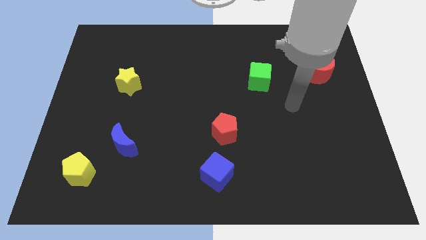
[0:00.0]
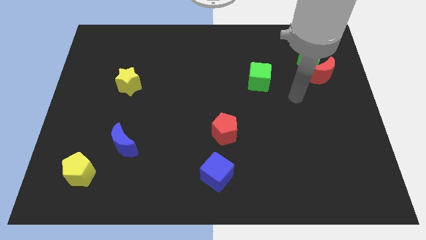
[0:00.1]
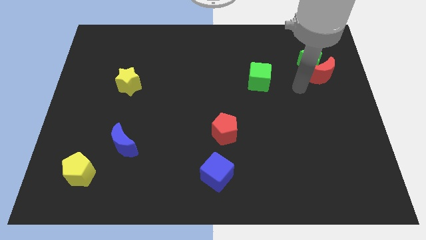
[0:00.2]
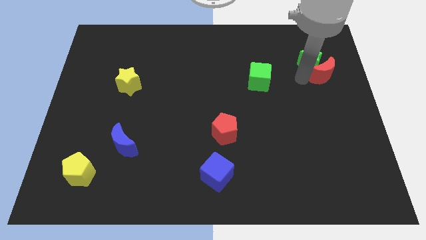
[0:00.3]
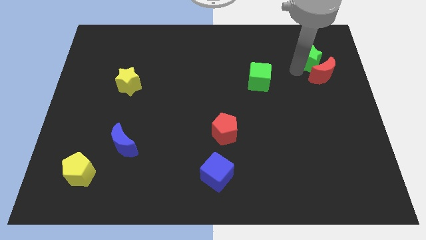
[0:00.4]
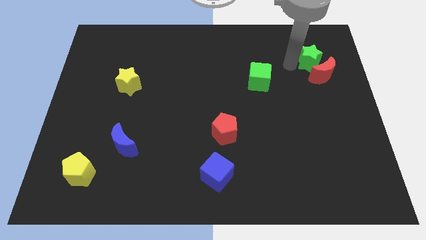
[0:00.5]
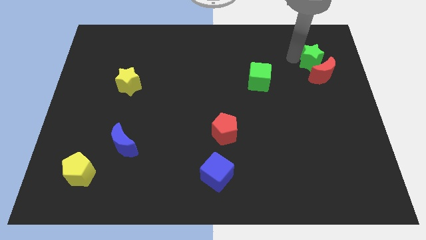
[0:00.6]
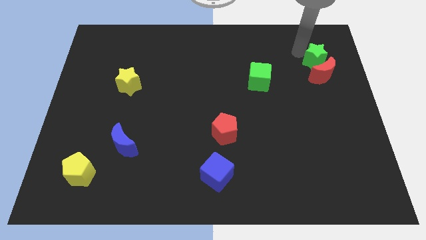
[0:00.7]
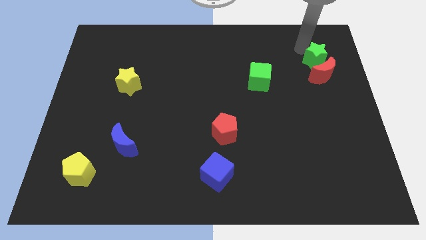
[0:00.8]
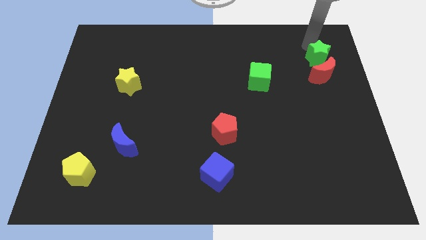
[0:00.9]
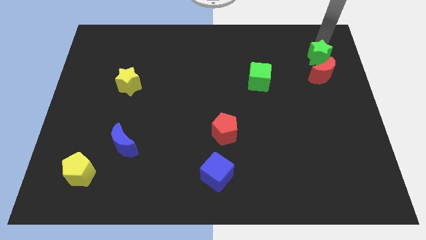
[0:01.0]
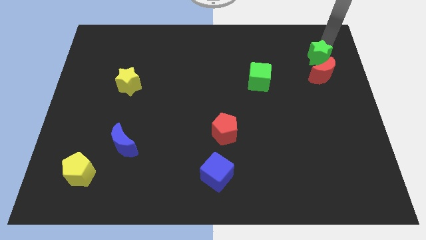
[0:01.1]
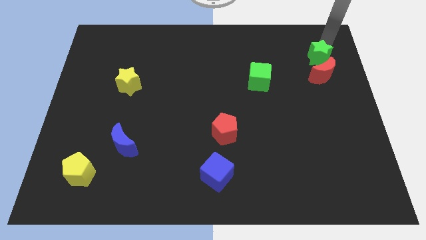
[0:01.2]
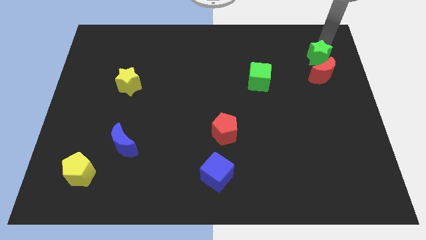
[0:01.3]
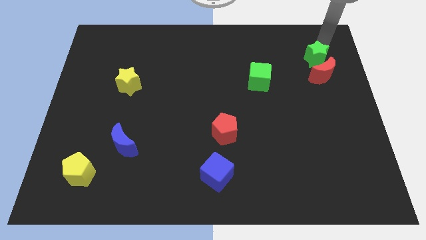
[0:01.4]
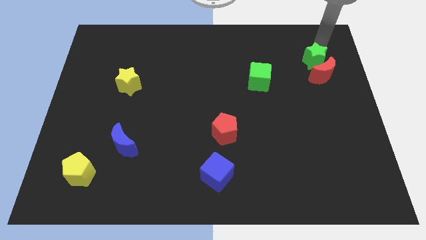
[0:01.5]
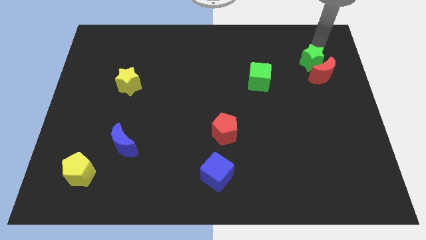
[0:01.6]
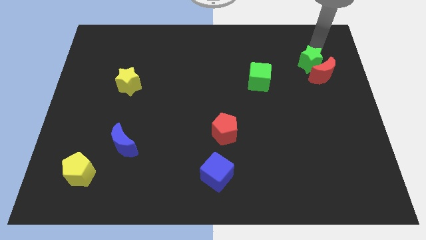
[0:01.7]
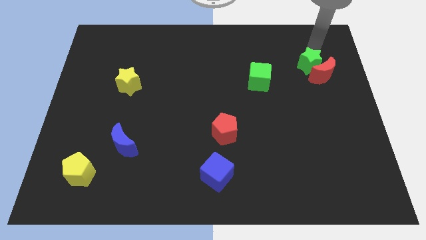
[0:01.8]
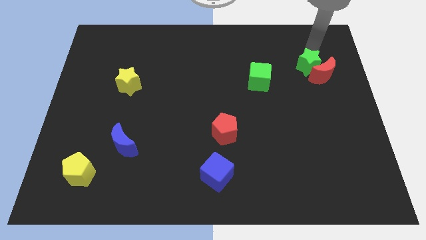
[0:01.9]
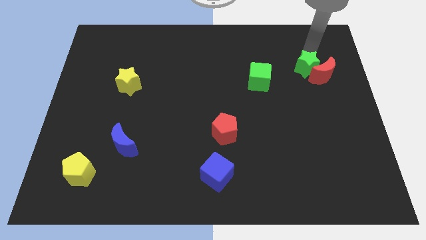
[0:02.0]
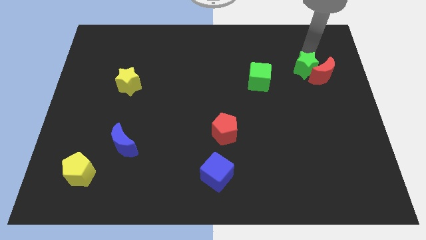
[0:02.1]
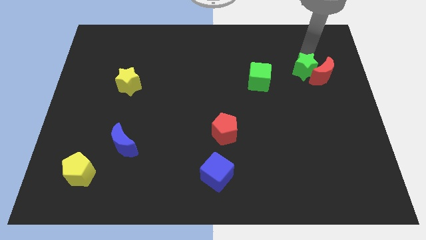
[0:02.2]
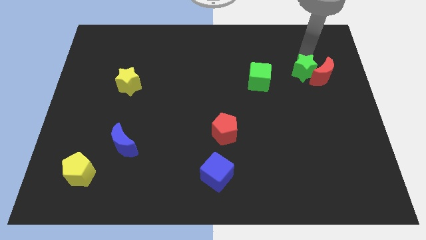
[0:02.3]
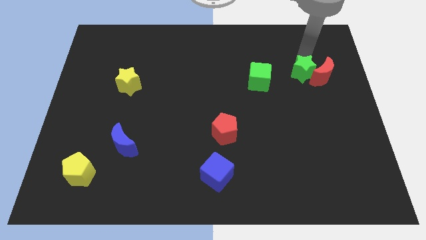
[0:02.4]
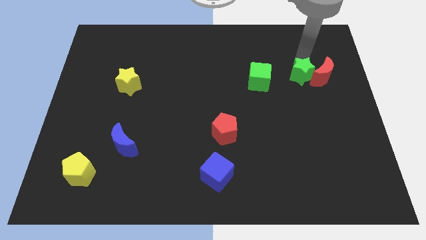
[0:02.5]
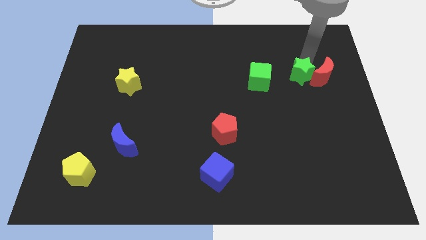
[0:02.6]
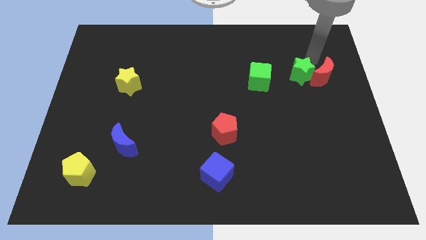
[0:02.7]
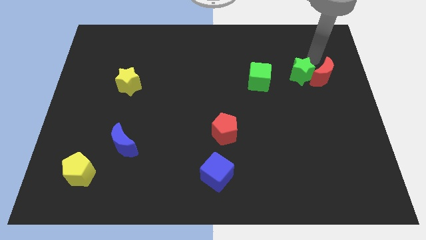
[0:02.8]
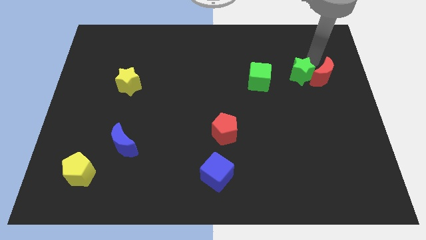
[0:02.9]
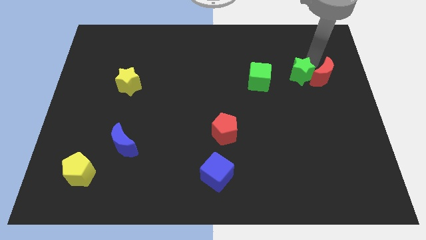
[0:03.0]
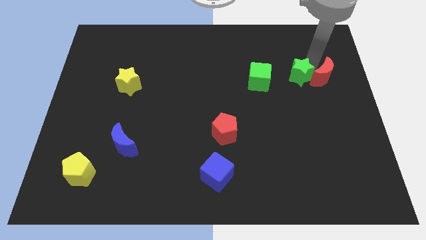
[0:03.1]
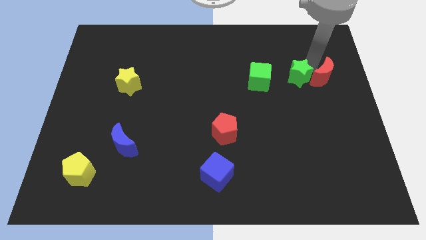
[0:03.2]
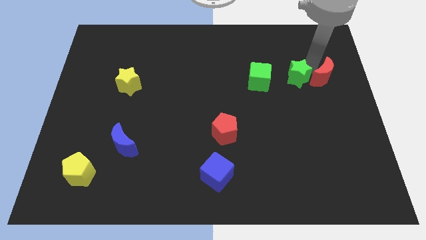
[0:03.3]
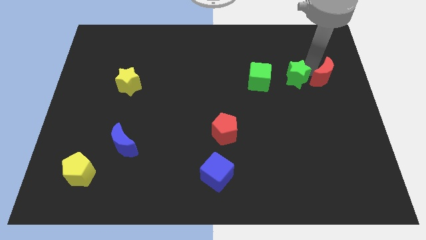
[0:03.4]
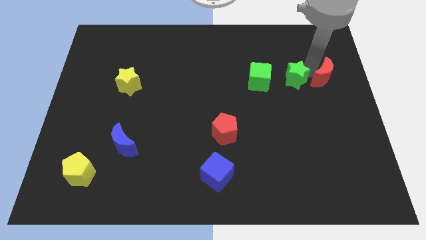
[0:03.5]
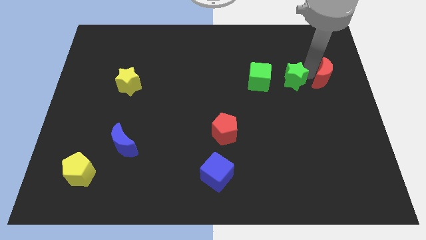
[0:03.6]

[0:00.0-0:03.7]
slightly push the green star diagonally downwards and left

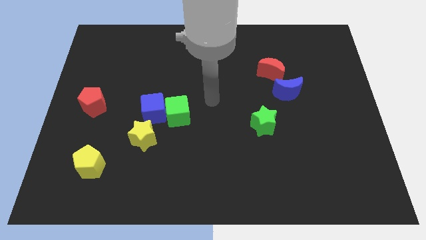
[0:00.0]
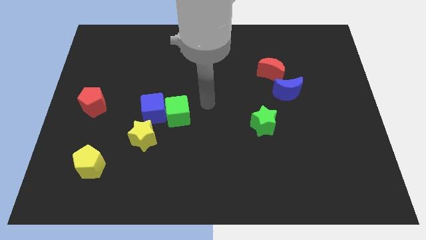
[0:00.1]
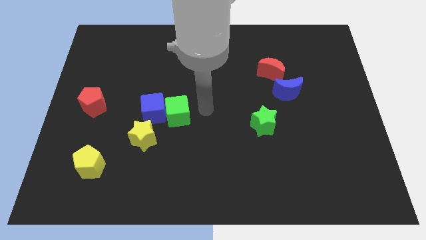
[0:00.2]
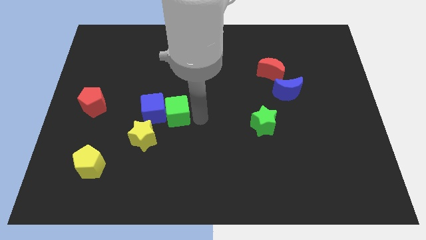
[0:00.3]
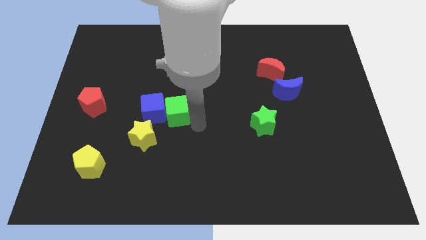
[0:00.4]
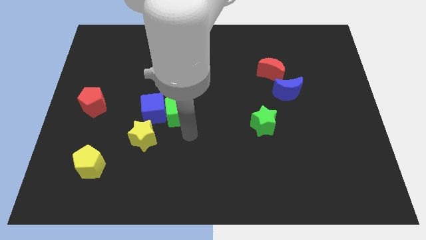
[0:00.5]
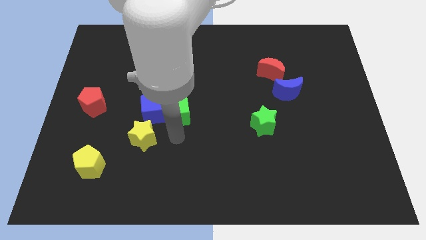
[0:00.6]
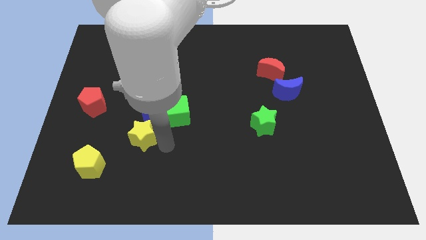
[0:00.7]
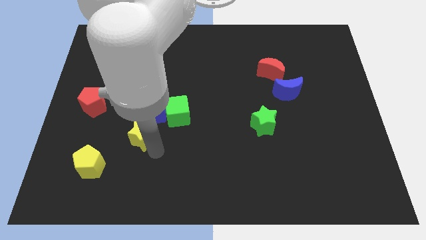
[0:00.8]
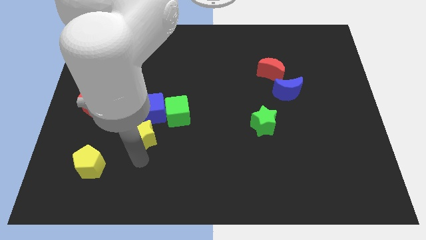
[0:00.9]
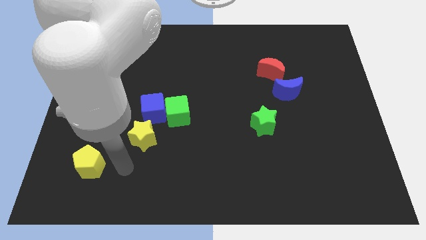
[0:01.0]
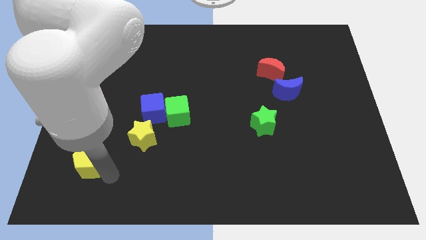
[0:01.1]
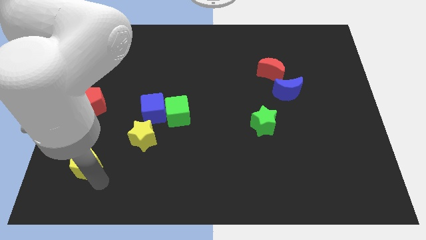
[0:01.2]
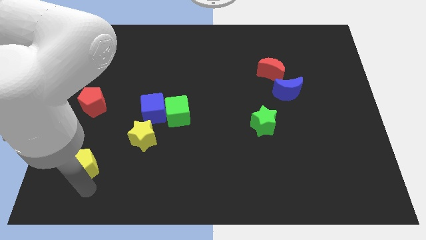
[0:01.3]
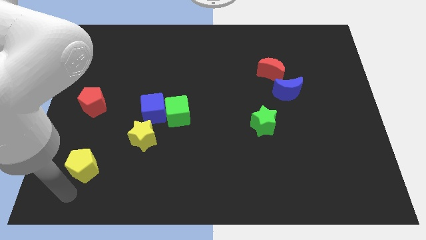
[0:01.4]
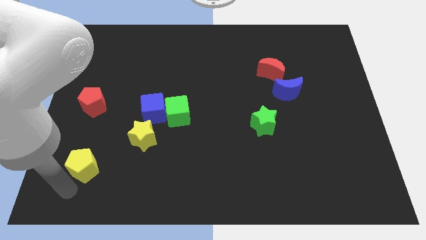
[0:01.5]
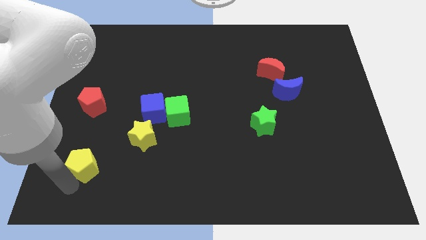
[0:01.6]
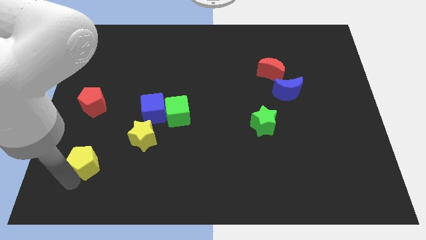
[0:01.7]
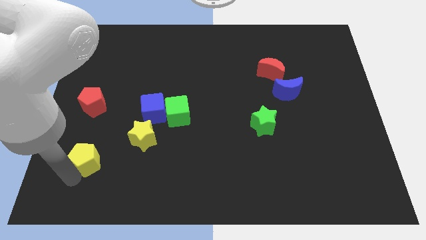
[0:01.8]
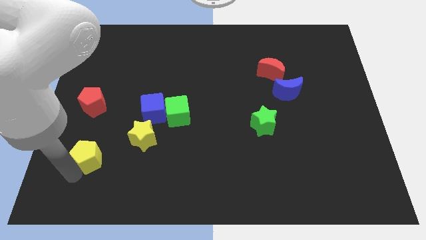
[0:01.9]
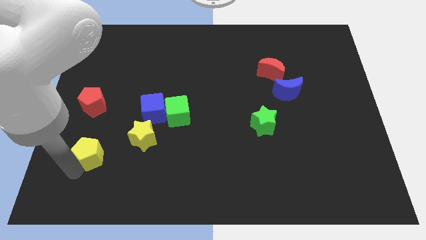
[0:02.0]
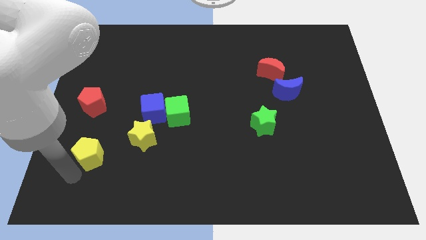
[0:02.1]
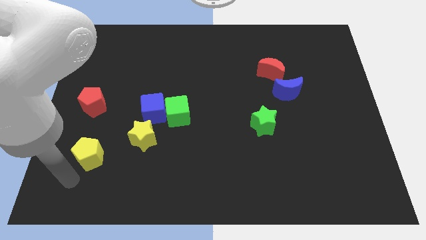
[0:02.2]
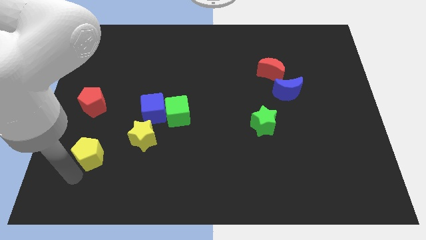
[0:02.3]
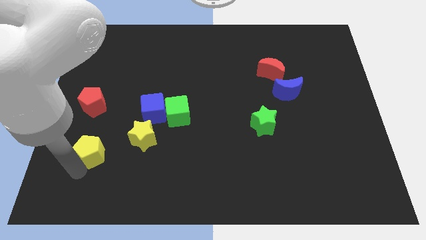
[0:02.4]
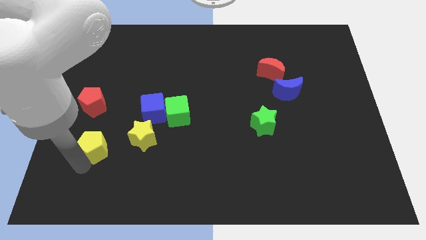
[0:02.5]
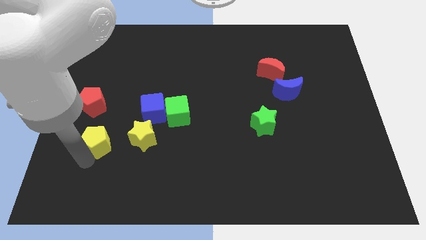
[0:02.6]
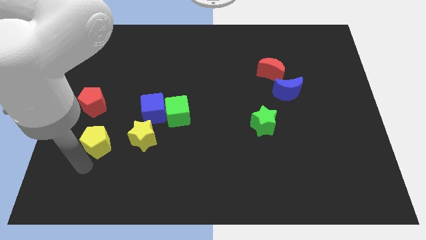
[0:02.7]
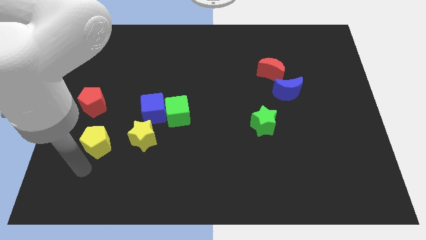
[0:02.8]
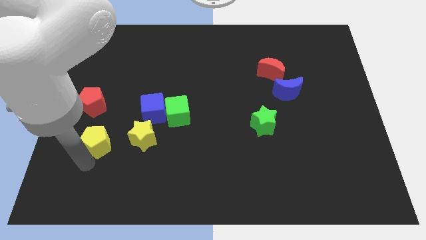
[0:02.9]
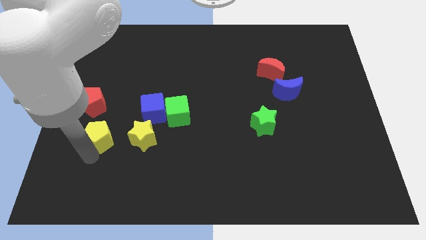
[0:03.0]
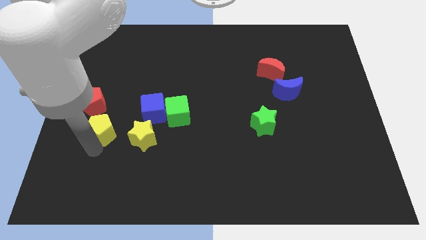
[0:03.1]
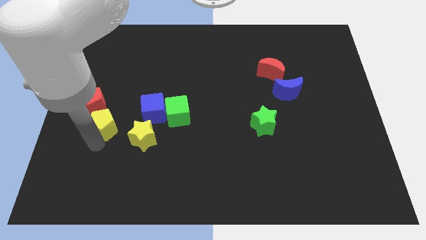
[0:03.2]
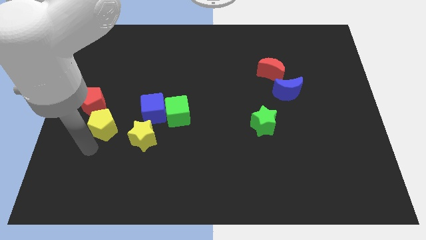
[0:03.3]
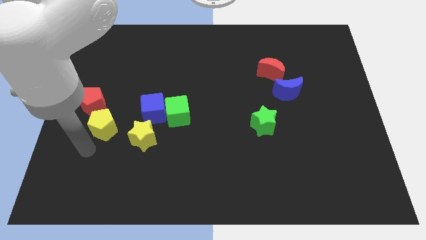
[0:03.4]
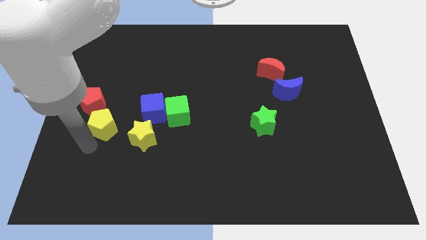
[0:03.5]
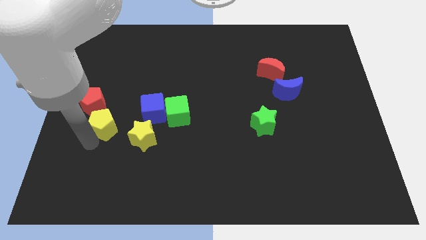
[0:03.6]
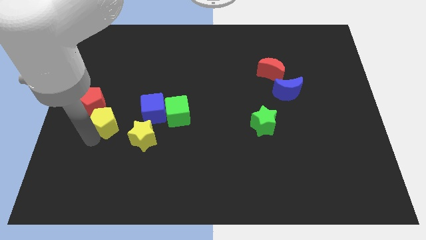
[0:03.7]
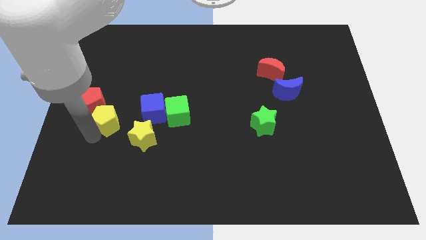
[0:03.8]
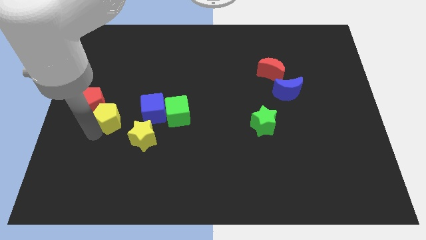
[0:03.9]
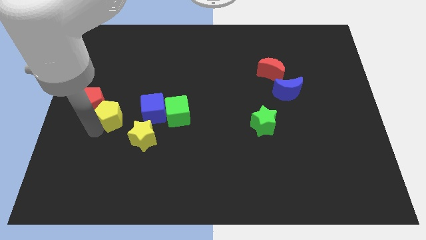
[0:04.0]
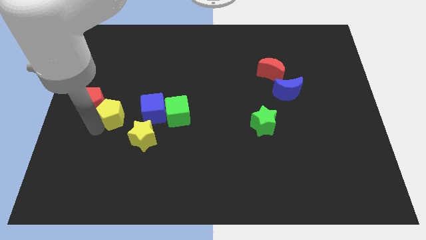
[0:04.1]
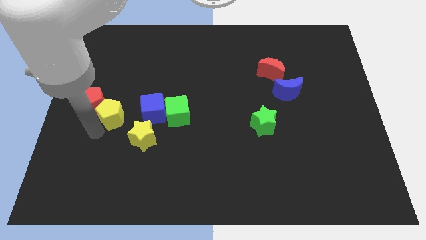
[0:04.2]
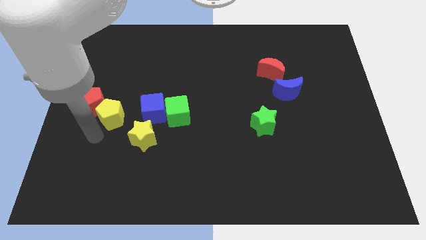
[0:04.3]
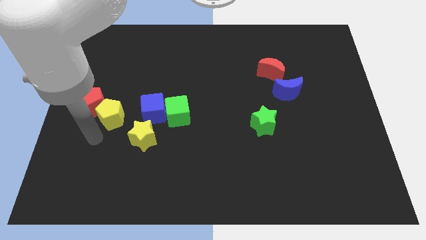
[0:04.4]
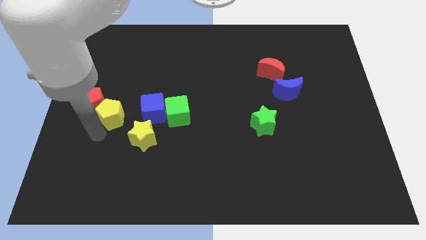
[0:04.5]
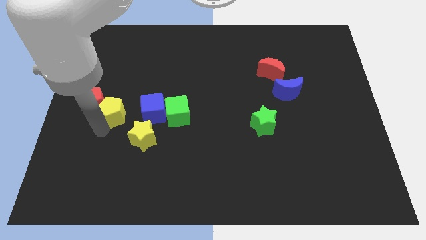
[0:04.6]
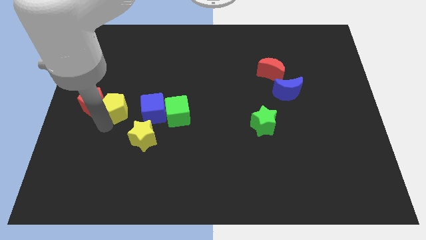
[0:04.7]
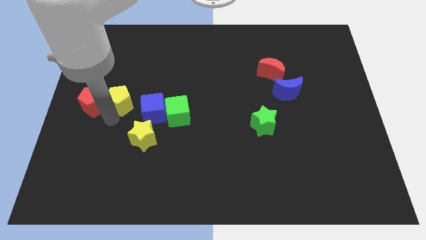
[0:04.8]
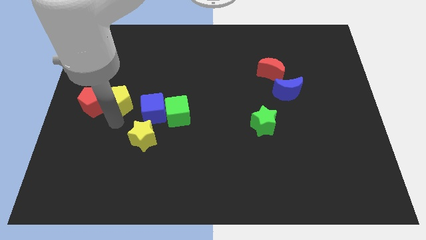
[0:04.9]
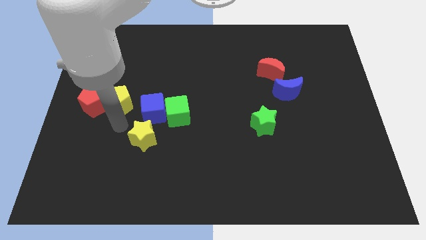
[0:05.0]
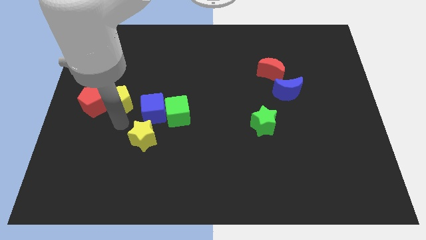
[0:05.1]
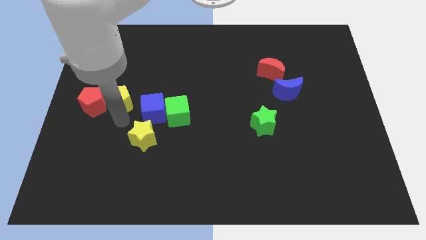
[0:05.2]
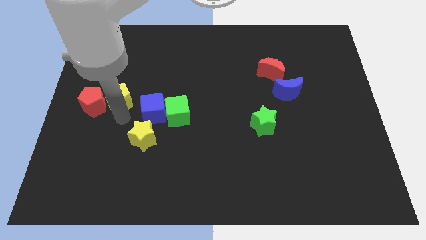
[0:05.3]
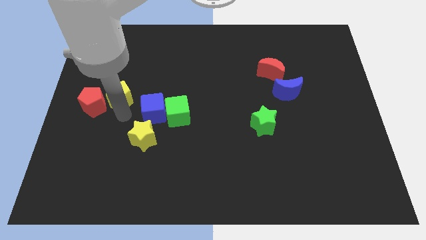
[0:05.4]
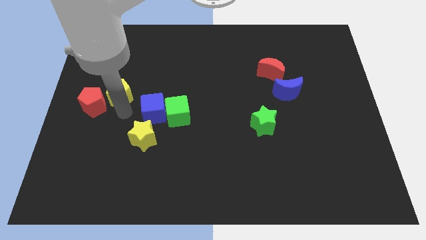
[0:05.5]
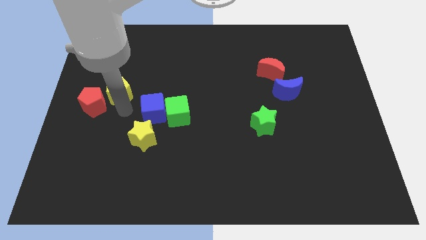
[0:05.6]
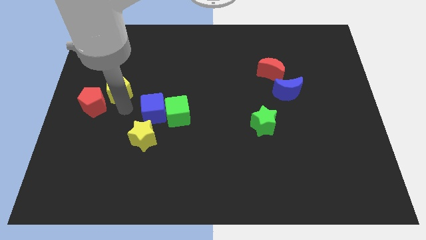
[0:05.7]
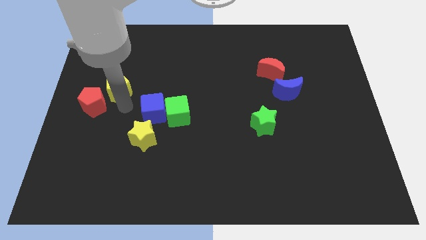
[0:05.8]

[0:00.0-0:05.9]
push the yellow pentagon upwards
